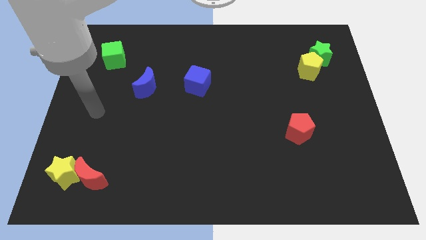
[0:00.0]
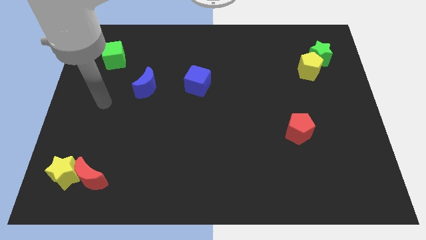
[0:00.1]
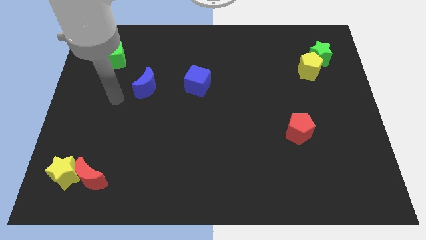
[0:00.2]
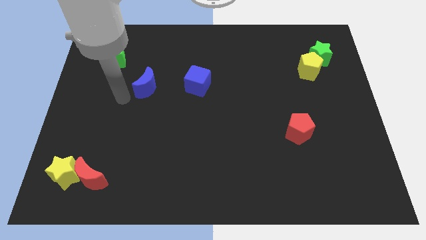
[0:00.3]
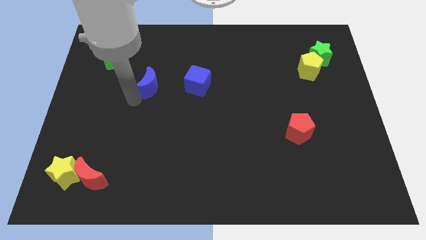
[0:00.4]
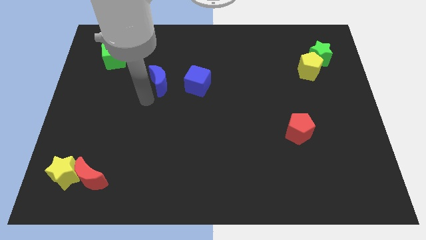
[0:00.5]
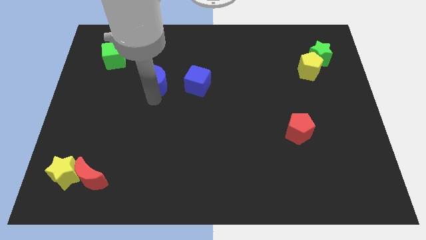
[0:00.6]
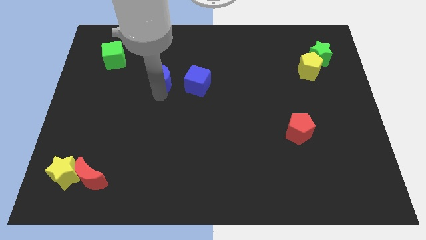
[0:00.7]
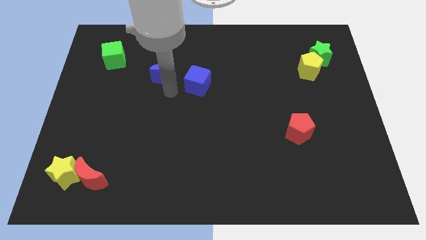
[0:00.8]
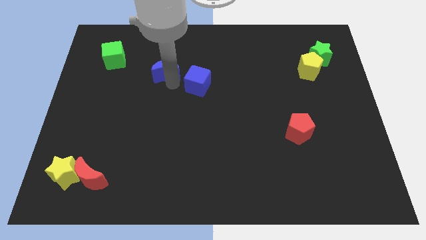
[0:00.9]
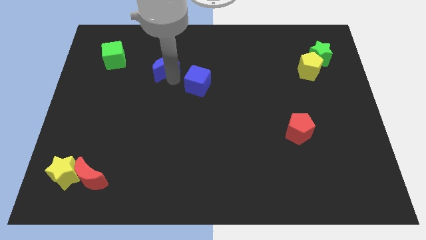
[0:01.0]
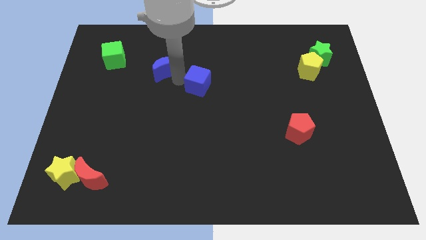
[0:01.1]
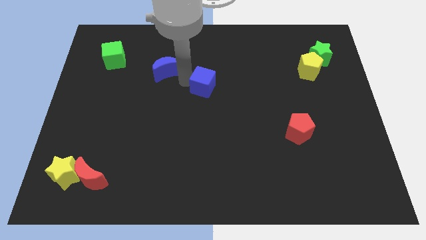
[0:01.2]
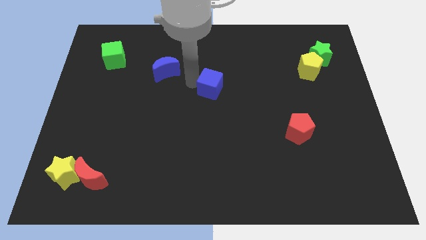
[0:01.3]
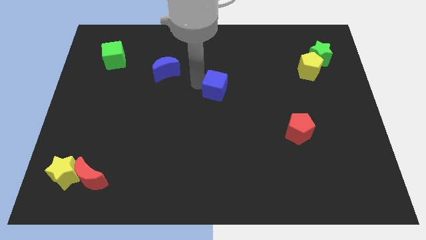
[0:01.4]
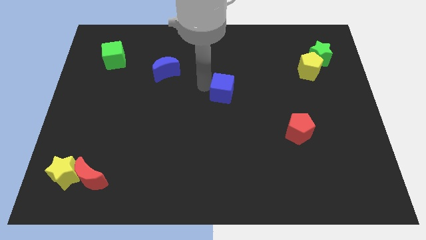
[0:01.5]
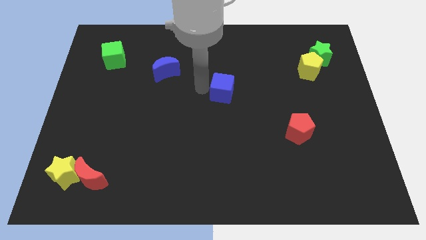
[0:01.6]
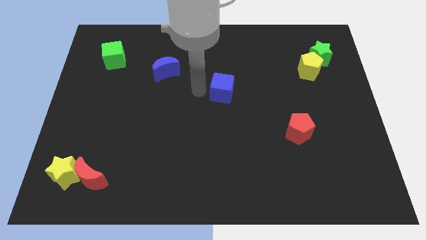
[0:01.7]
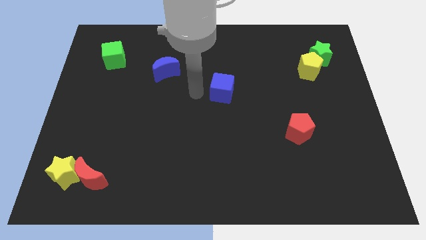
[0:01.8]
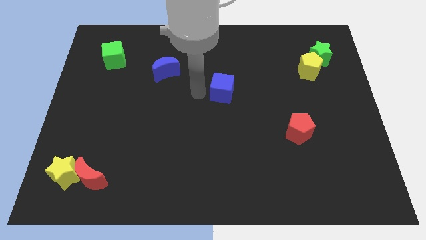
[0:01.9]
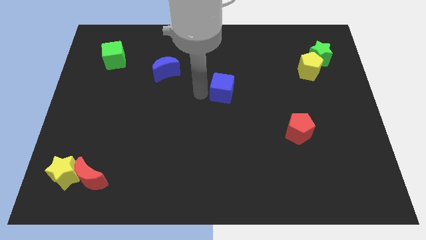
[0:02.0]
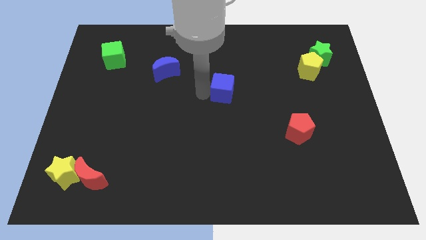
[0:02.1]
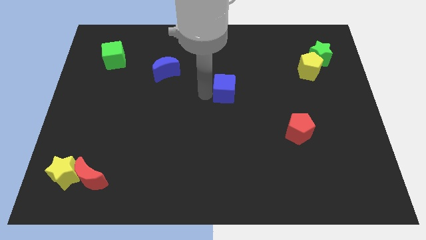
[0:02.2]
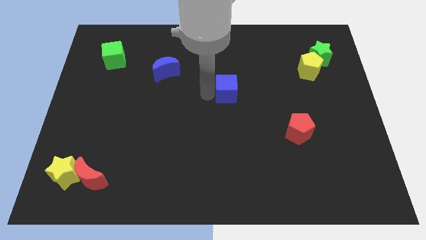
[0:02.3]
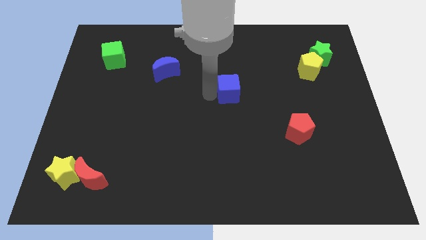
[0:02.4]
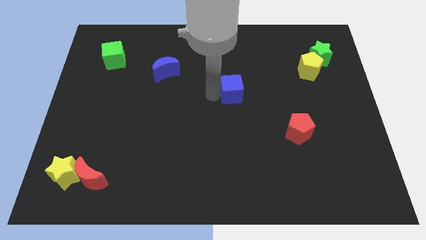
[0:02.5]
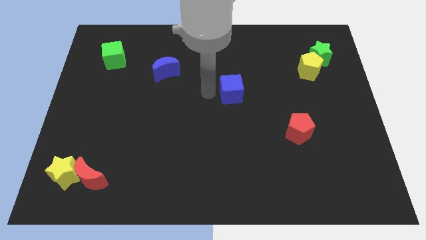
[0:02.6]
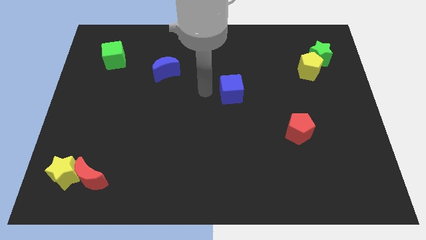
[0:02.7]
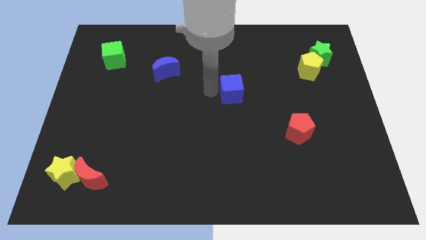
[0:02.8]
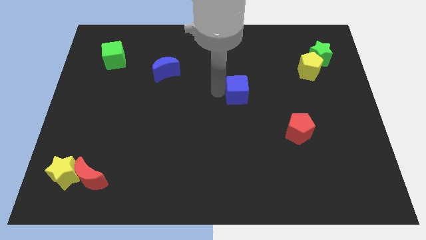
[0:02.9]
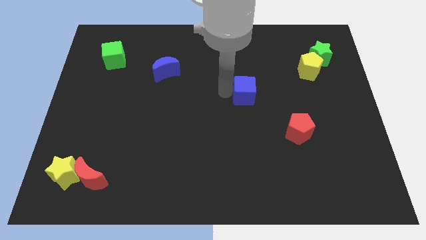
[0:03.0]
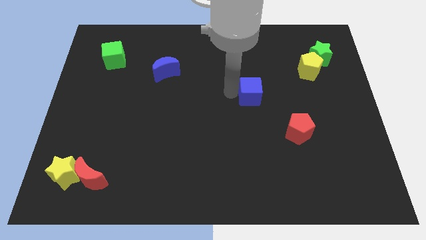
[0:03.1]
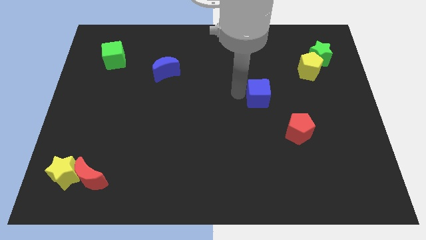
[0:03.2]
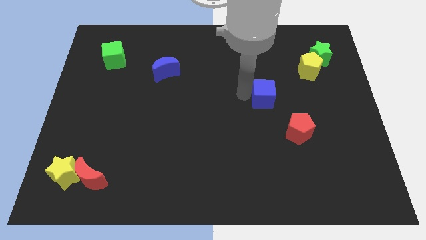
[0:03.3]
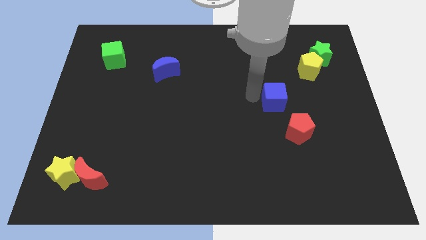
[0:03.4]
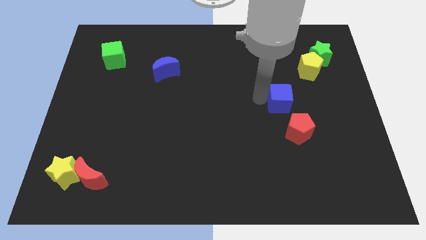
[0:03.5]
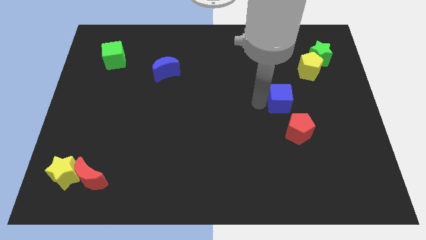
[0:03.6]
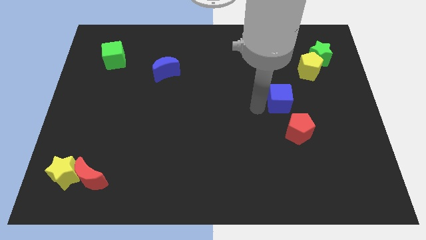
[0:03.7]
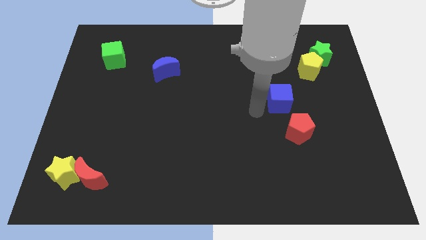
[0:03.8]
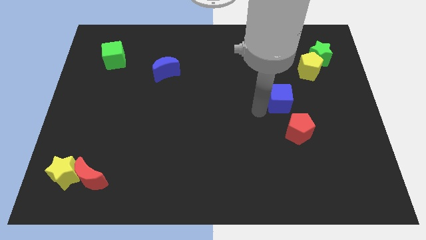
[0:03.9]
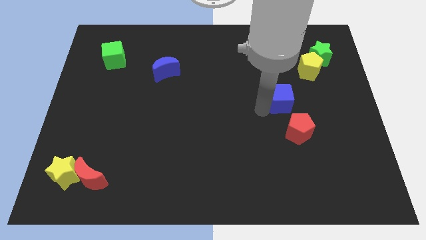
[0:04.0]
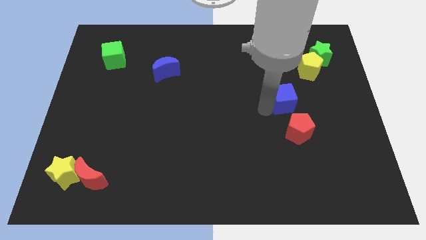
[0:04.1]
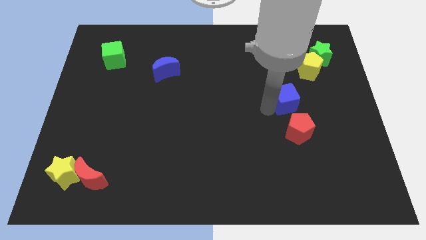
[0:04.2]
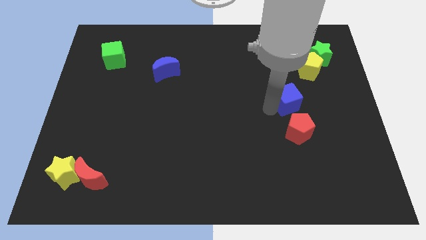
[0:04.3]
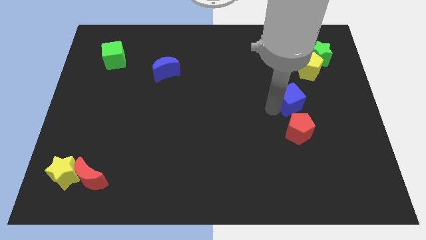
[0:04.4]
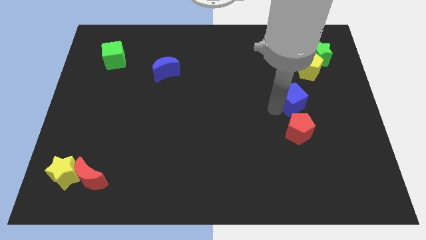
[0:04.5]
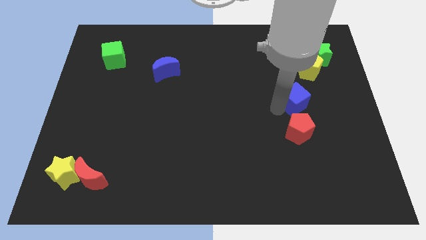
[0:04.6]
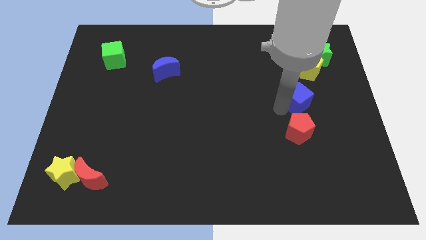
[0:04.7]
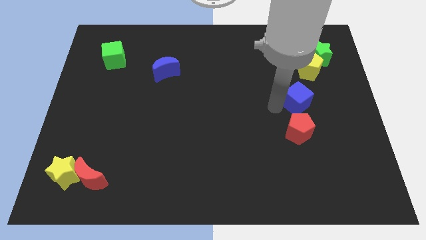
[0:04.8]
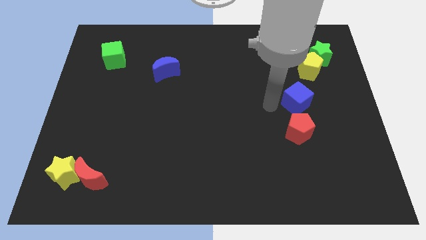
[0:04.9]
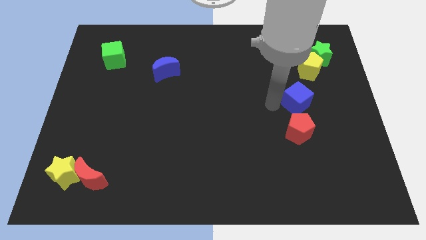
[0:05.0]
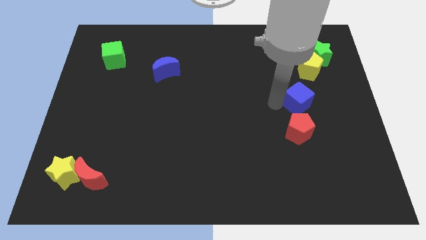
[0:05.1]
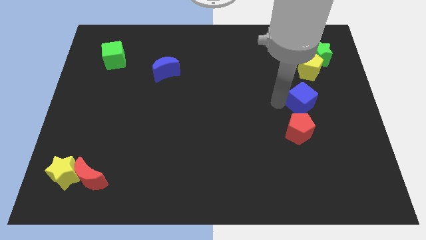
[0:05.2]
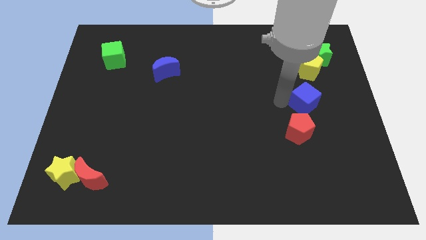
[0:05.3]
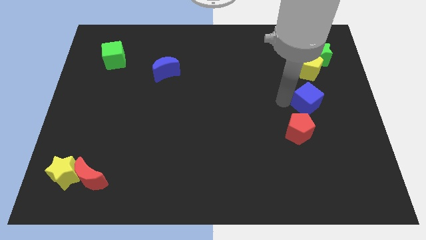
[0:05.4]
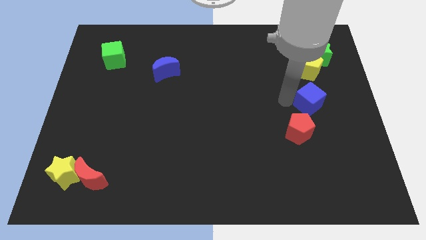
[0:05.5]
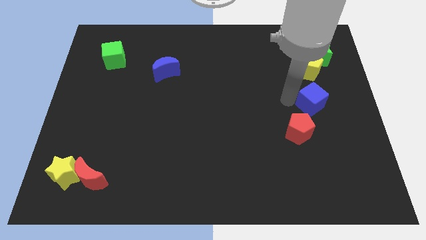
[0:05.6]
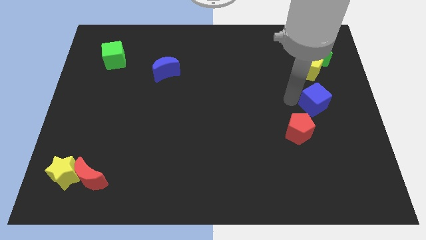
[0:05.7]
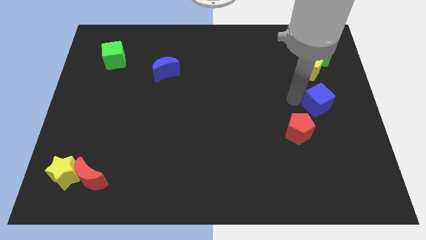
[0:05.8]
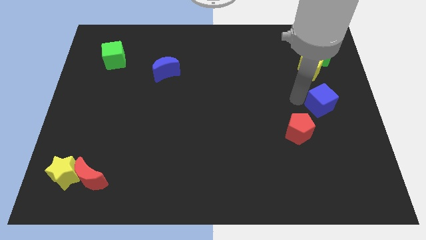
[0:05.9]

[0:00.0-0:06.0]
push the blue cube to the right side of the board
